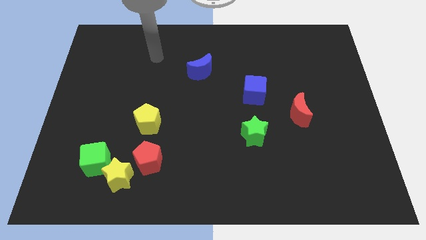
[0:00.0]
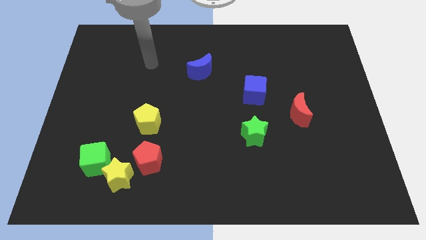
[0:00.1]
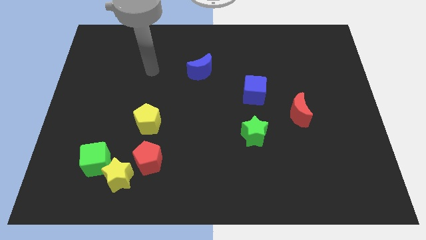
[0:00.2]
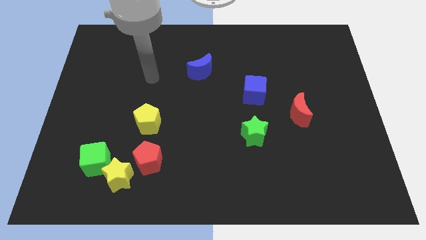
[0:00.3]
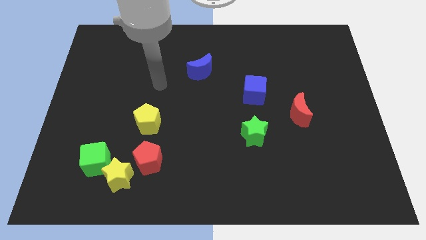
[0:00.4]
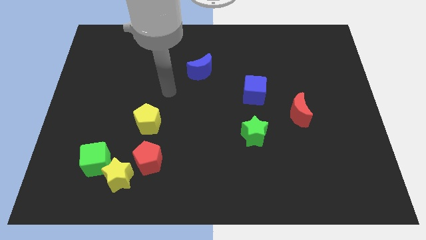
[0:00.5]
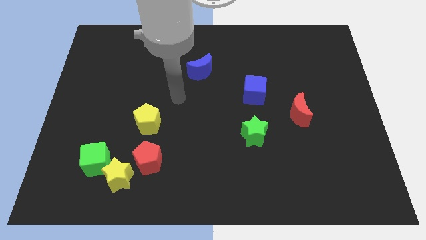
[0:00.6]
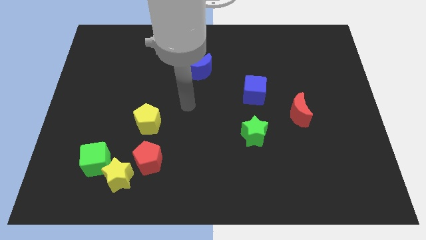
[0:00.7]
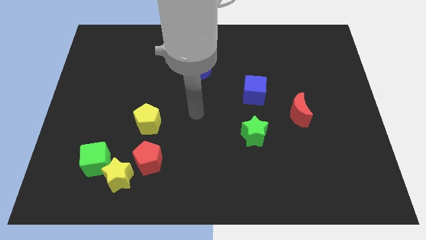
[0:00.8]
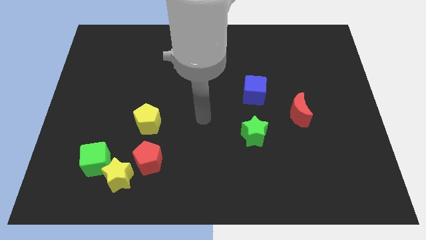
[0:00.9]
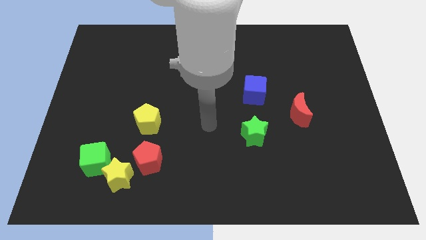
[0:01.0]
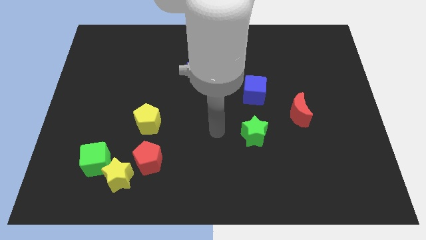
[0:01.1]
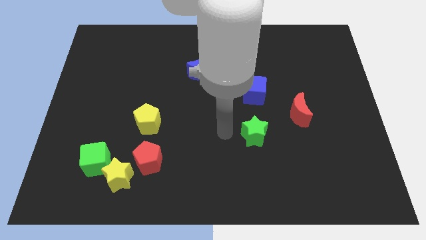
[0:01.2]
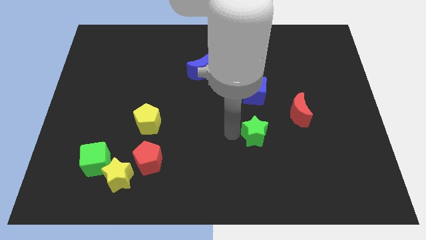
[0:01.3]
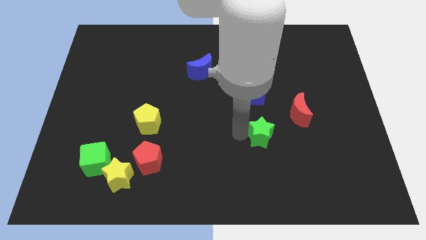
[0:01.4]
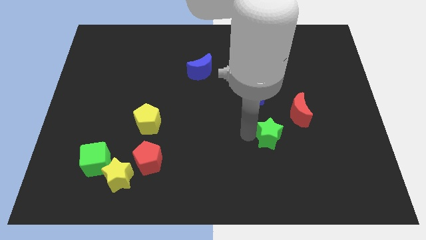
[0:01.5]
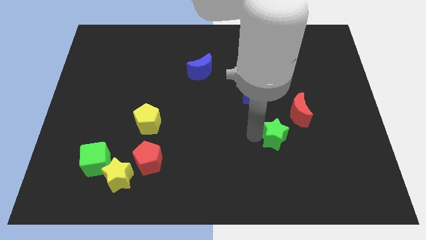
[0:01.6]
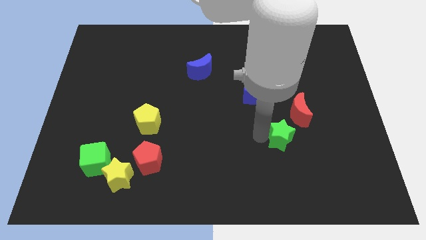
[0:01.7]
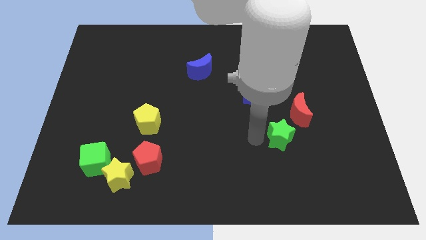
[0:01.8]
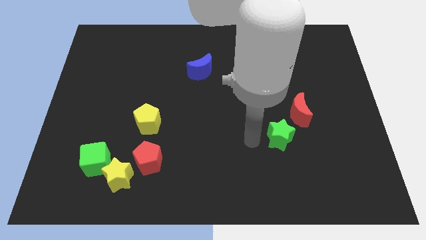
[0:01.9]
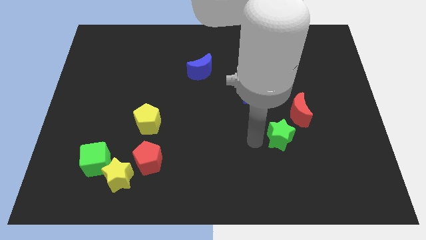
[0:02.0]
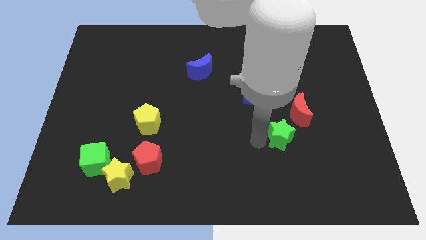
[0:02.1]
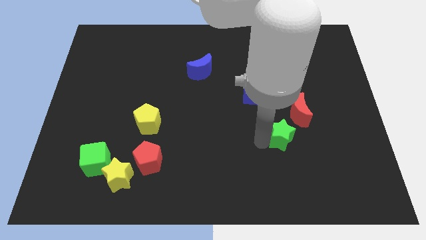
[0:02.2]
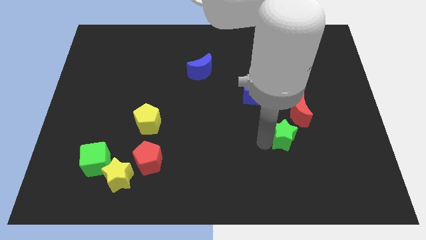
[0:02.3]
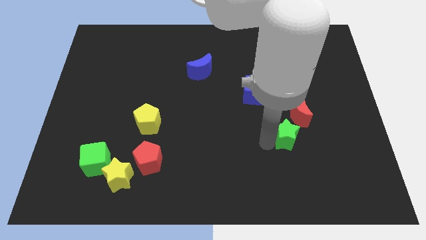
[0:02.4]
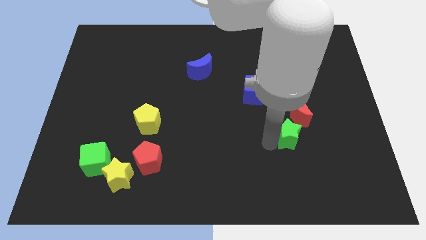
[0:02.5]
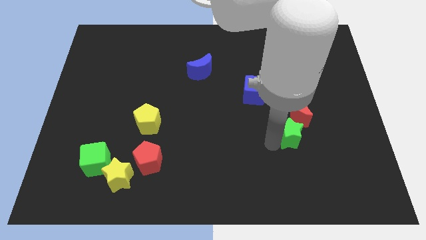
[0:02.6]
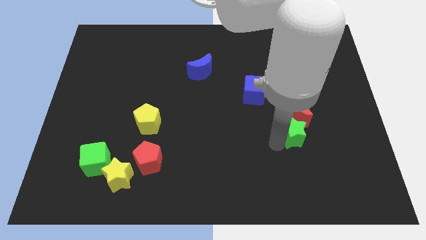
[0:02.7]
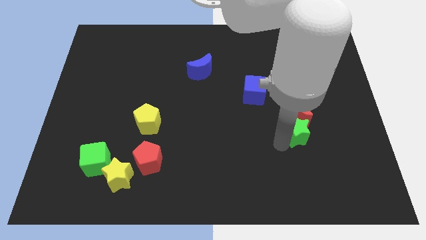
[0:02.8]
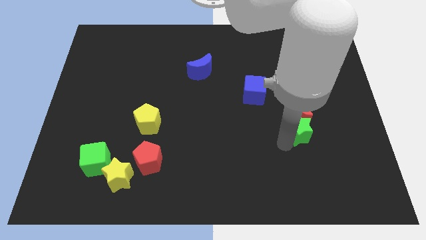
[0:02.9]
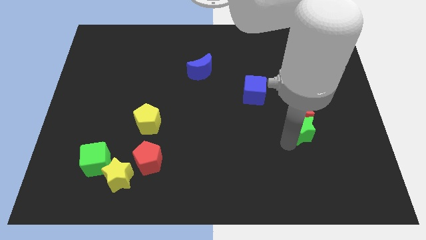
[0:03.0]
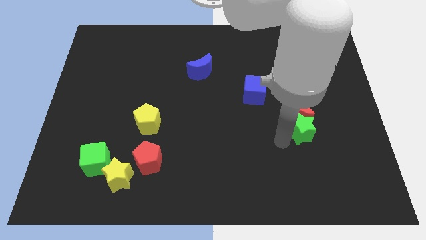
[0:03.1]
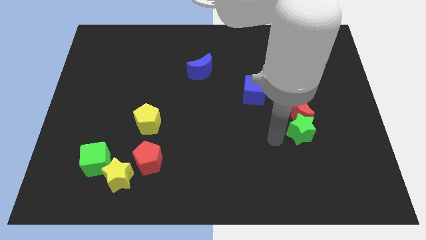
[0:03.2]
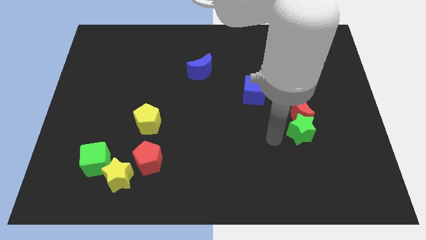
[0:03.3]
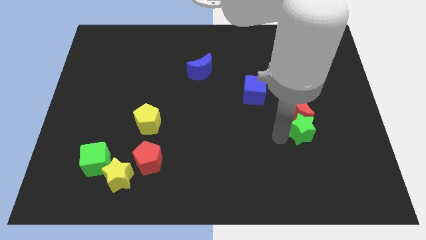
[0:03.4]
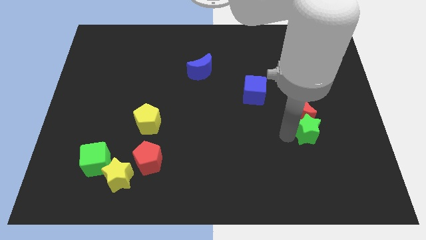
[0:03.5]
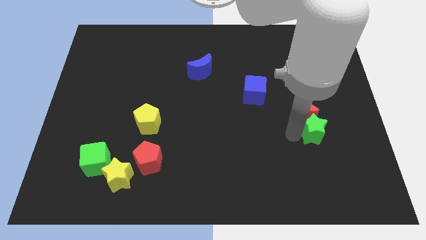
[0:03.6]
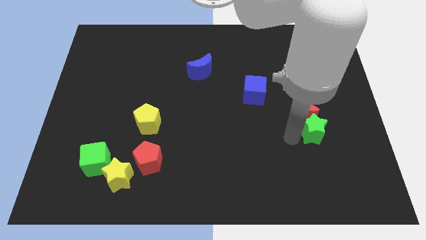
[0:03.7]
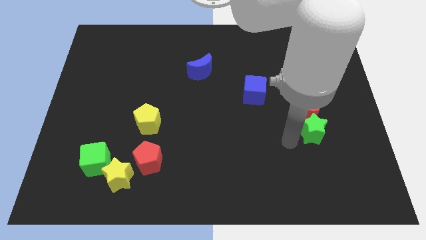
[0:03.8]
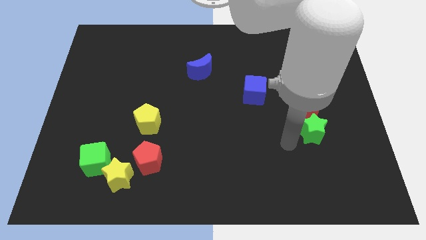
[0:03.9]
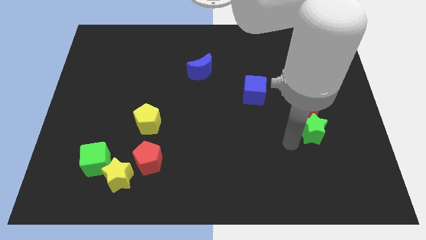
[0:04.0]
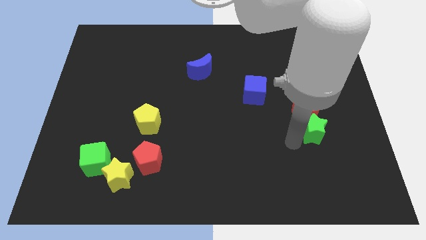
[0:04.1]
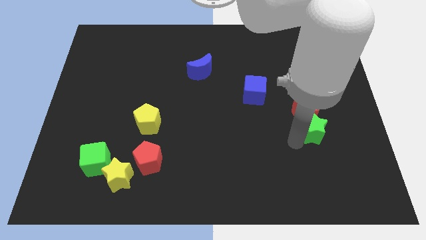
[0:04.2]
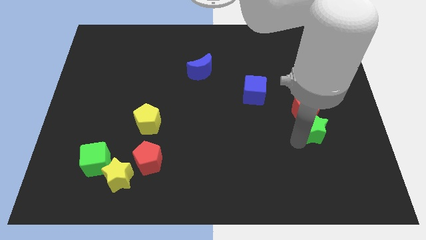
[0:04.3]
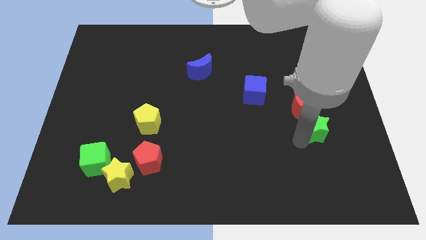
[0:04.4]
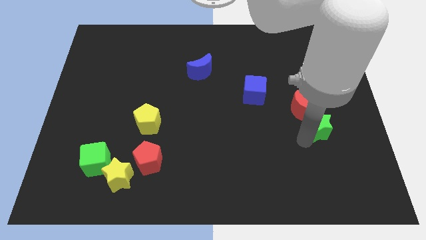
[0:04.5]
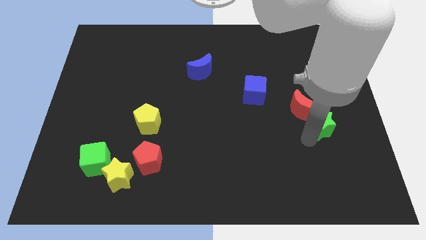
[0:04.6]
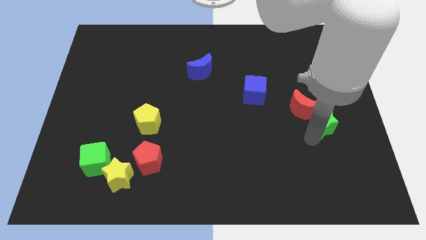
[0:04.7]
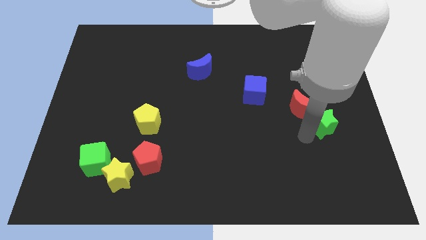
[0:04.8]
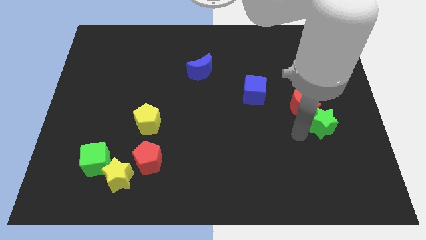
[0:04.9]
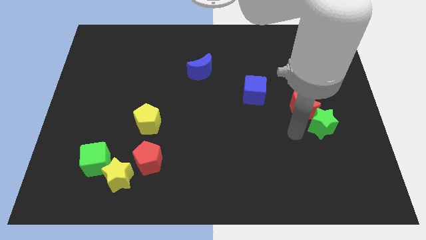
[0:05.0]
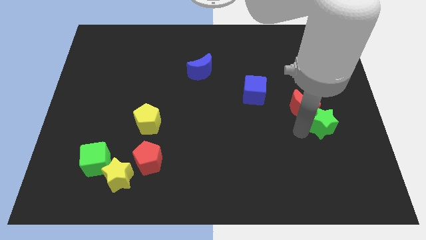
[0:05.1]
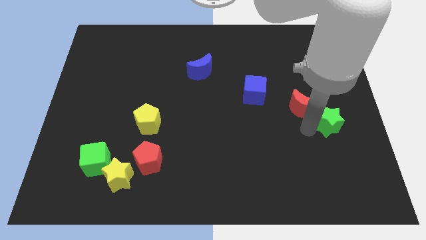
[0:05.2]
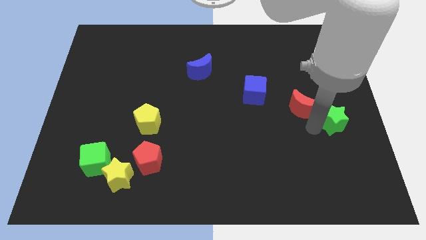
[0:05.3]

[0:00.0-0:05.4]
put the green star to the right side of the board
